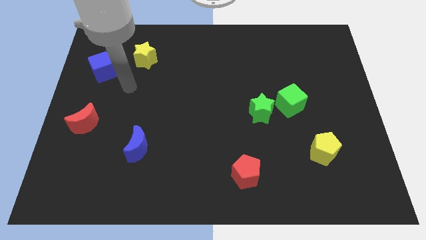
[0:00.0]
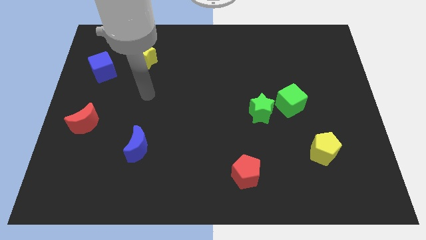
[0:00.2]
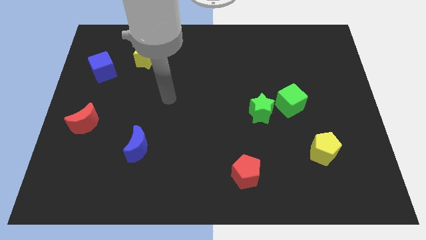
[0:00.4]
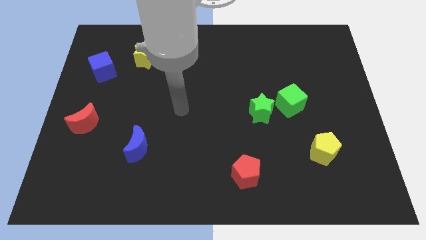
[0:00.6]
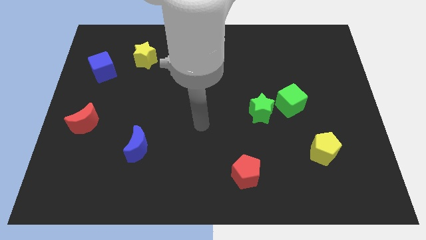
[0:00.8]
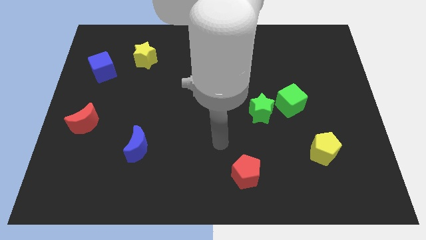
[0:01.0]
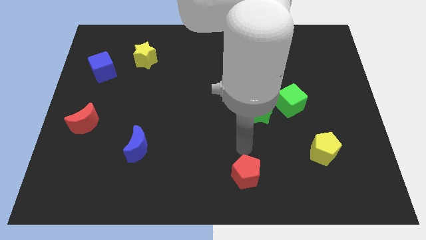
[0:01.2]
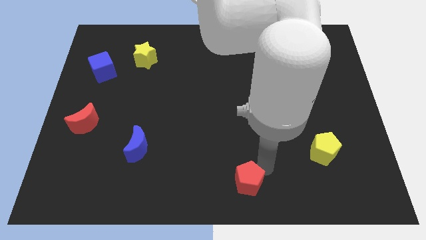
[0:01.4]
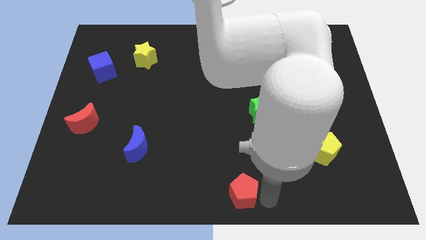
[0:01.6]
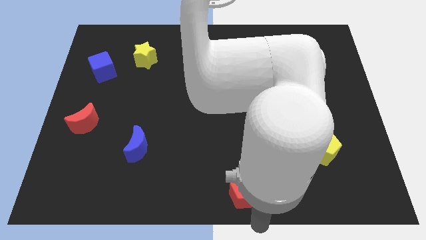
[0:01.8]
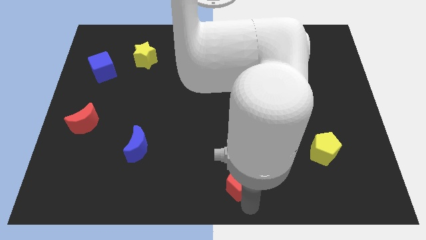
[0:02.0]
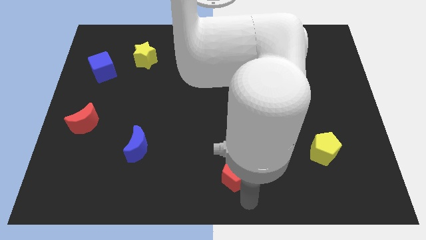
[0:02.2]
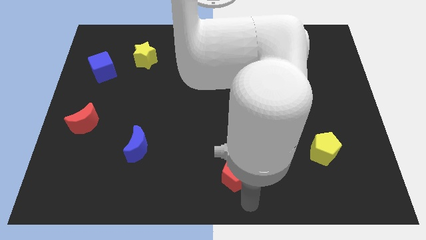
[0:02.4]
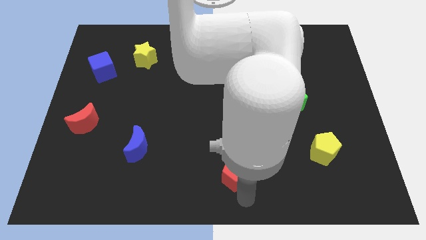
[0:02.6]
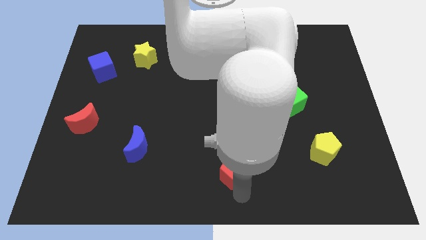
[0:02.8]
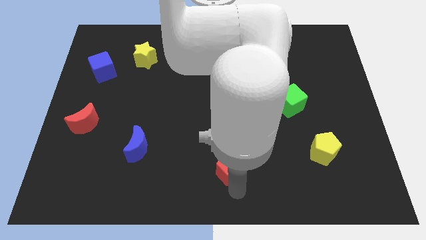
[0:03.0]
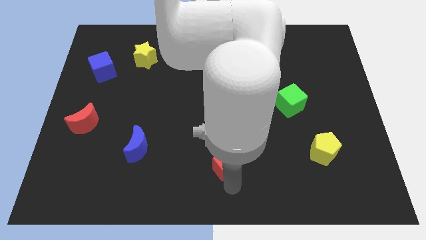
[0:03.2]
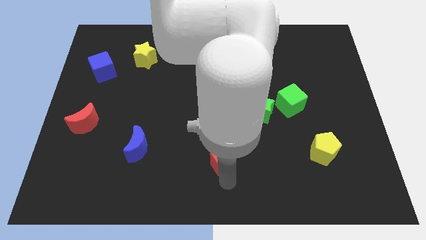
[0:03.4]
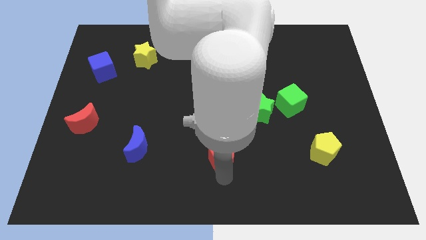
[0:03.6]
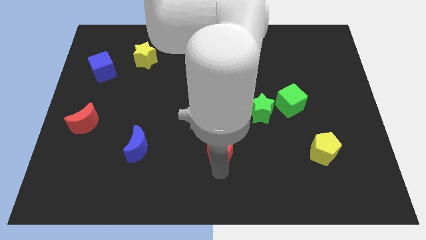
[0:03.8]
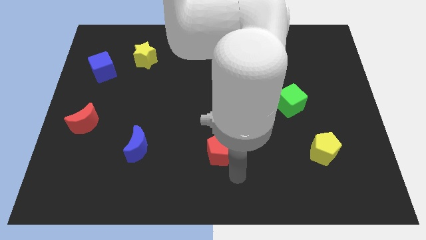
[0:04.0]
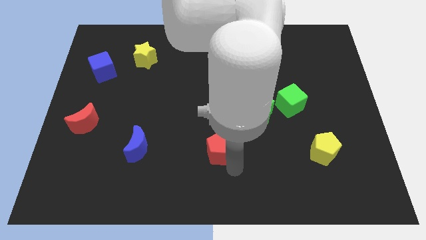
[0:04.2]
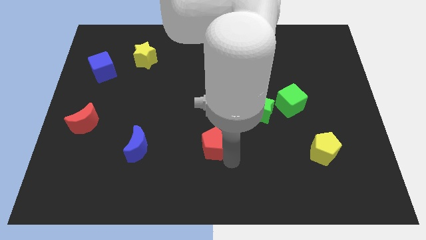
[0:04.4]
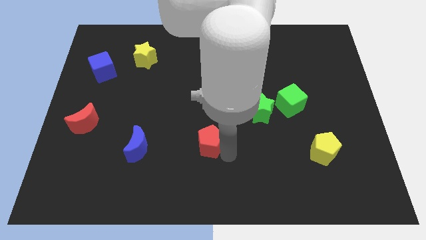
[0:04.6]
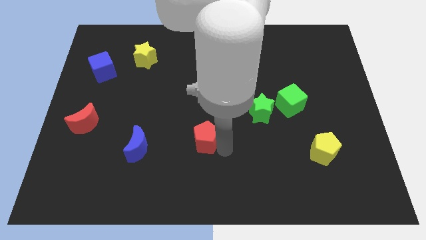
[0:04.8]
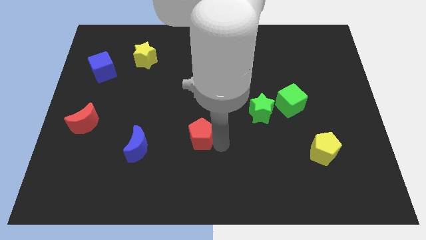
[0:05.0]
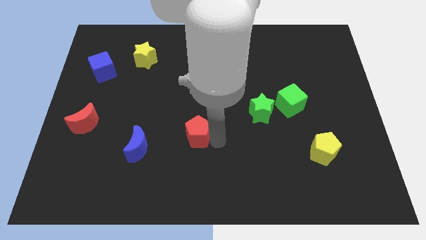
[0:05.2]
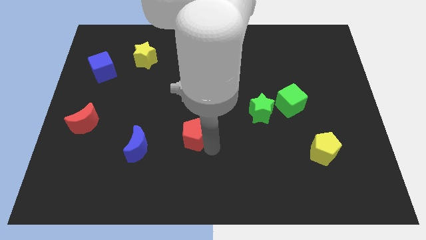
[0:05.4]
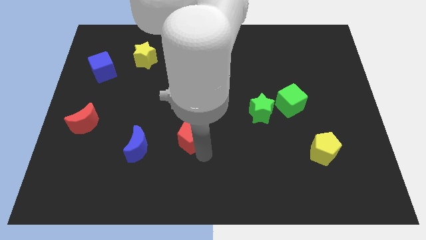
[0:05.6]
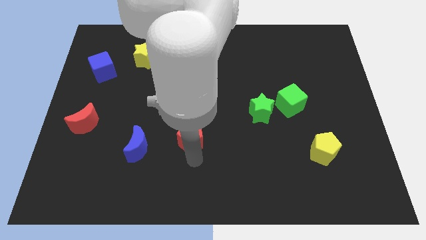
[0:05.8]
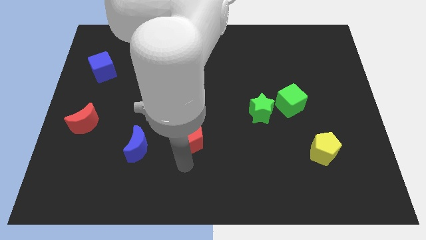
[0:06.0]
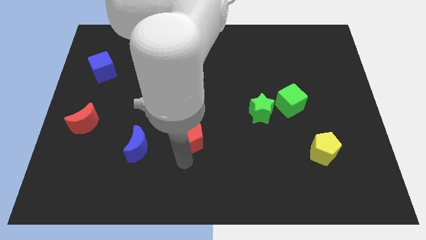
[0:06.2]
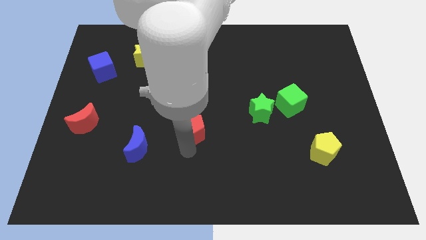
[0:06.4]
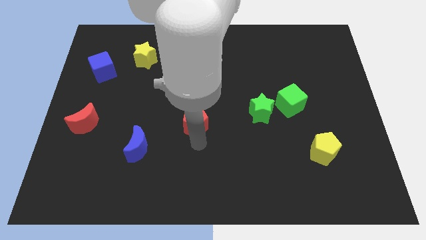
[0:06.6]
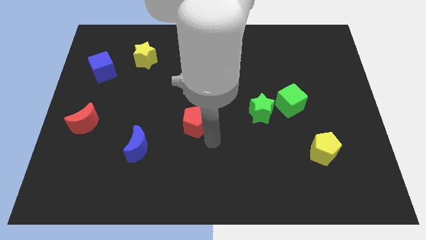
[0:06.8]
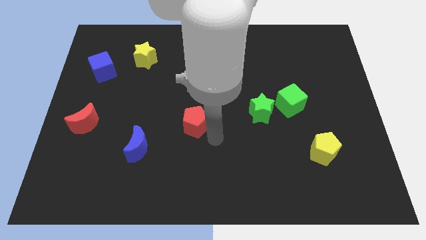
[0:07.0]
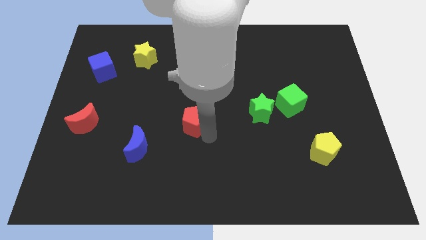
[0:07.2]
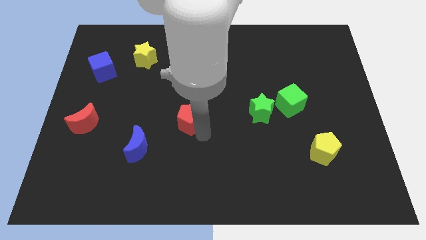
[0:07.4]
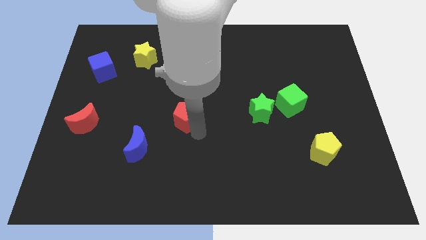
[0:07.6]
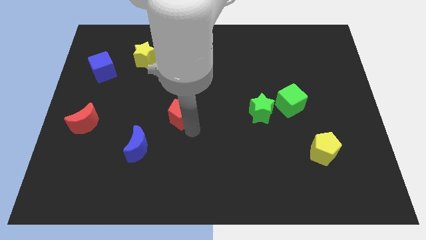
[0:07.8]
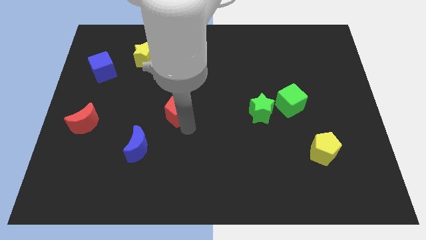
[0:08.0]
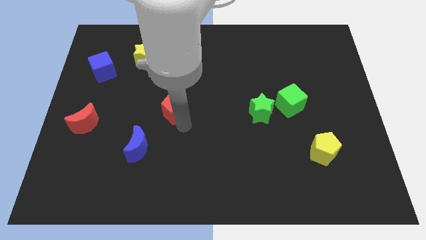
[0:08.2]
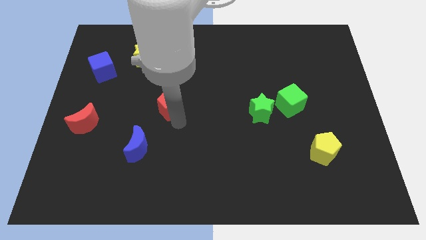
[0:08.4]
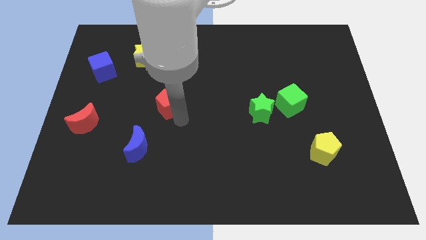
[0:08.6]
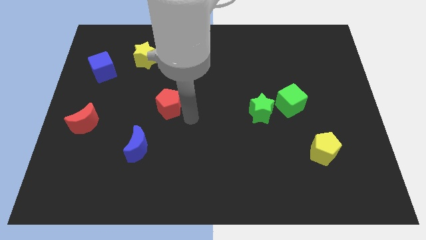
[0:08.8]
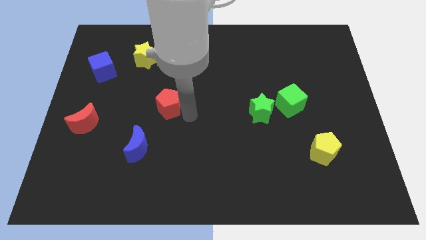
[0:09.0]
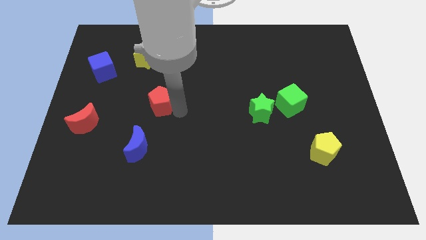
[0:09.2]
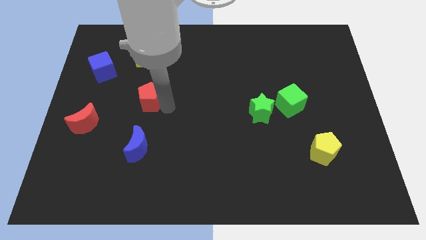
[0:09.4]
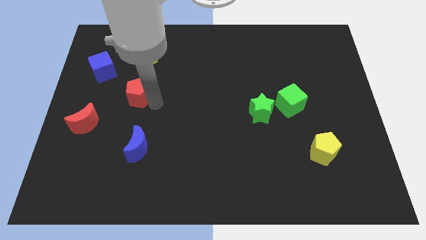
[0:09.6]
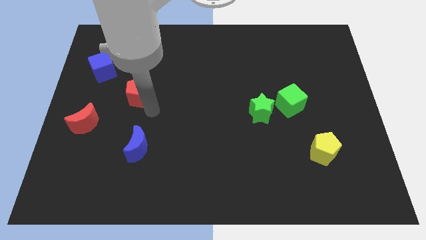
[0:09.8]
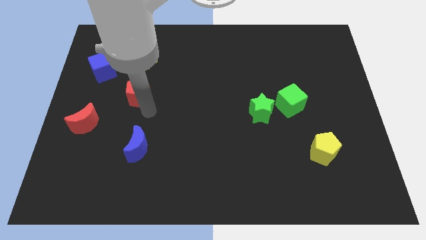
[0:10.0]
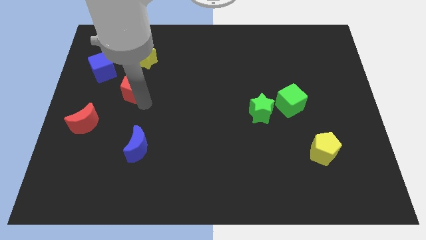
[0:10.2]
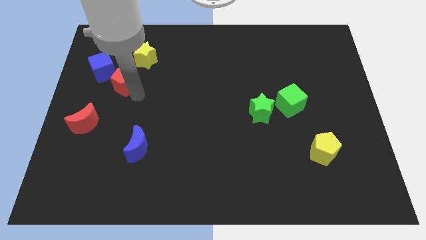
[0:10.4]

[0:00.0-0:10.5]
put the red pentagon to the bottom left of the yellow star

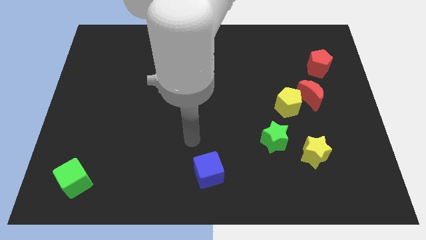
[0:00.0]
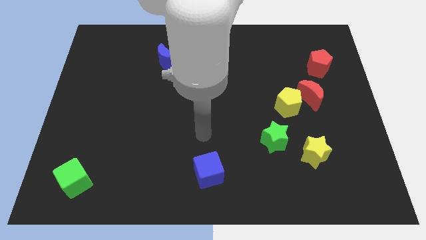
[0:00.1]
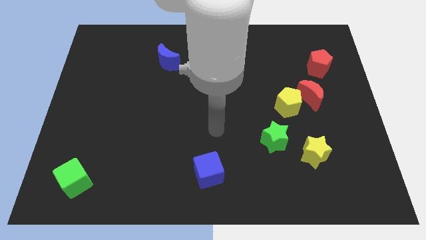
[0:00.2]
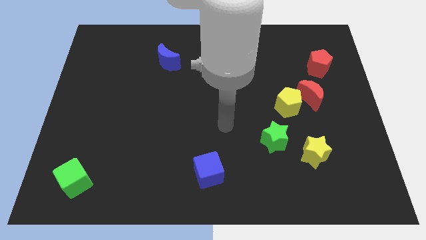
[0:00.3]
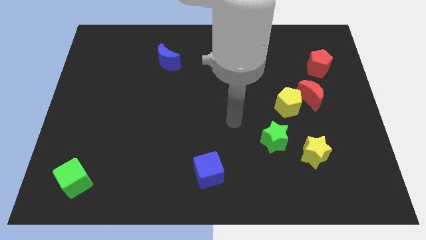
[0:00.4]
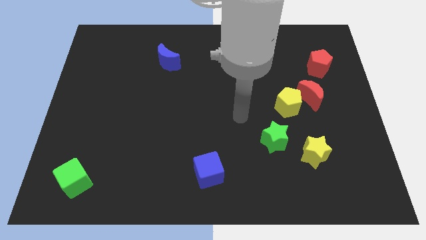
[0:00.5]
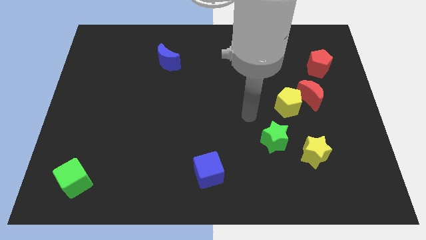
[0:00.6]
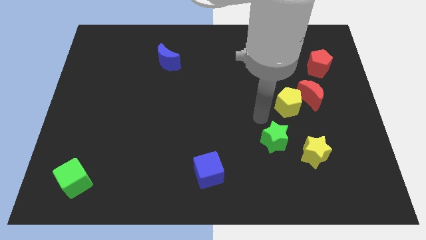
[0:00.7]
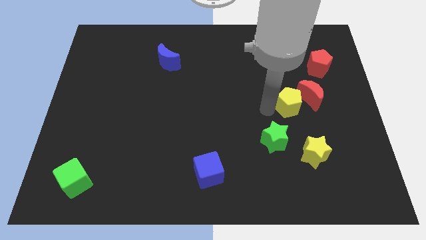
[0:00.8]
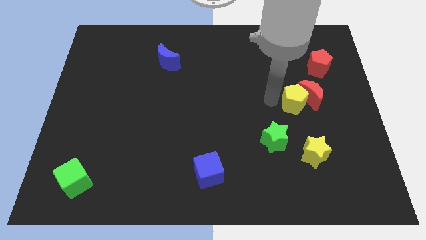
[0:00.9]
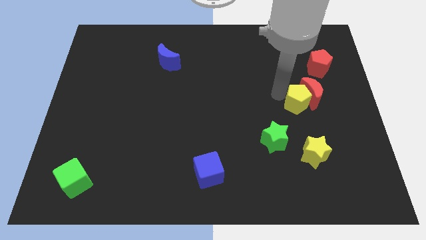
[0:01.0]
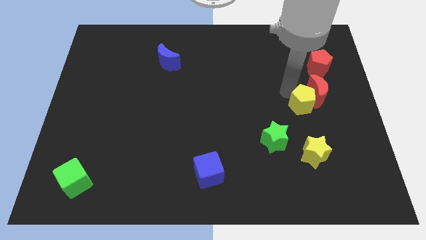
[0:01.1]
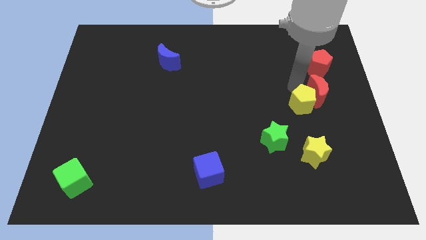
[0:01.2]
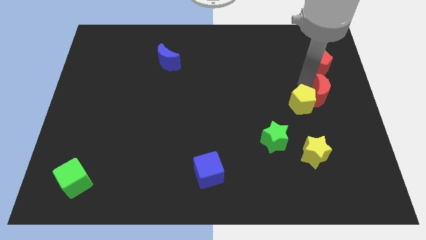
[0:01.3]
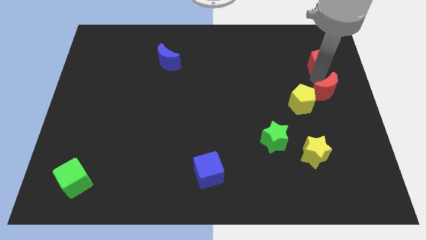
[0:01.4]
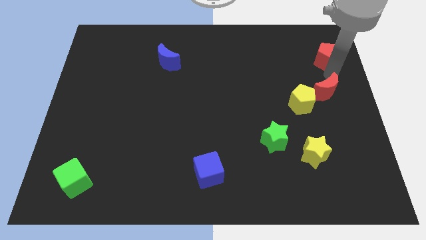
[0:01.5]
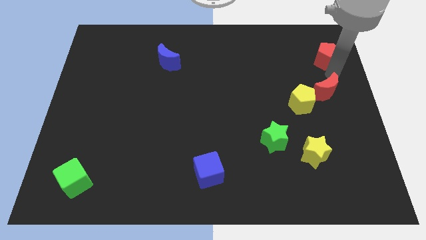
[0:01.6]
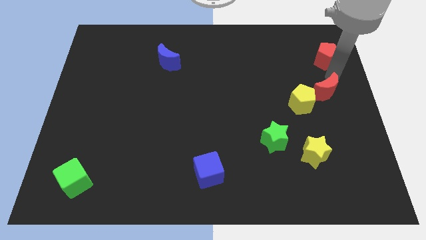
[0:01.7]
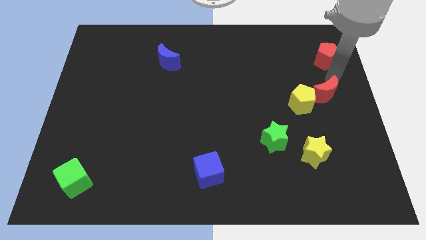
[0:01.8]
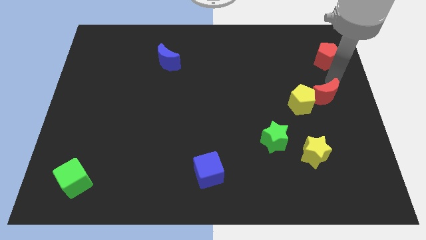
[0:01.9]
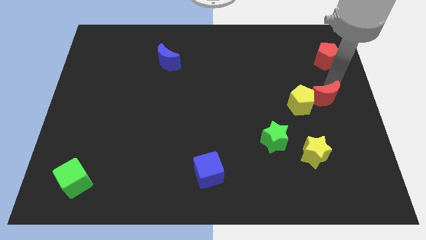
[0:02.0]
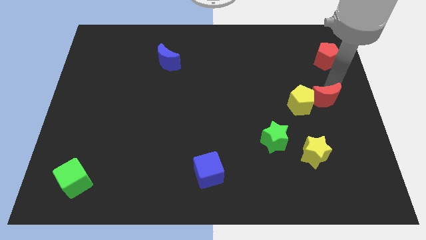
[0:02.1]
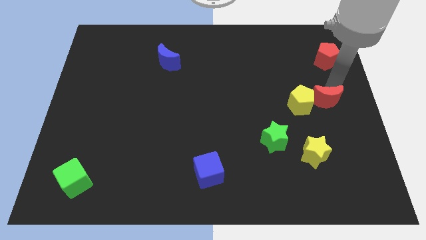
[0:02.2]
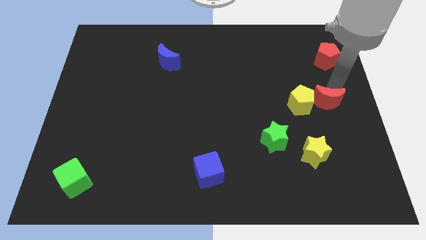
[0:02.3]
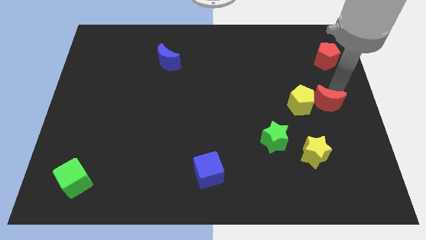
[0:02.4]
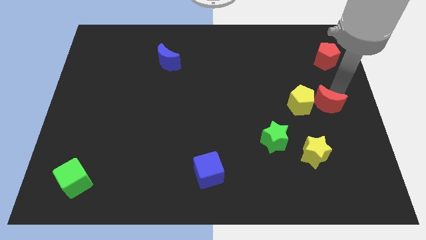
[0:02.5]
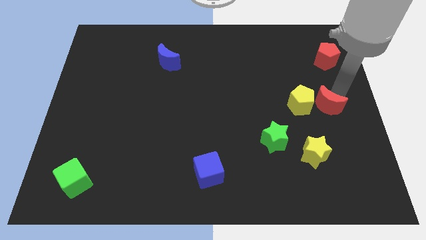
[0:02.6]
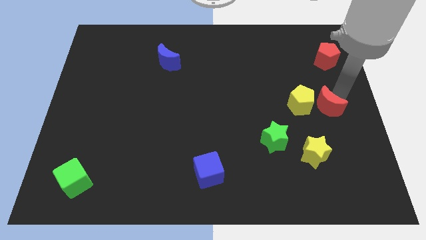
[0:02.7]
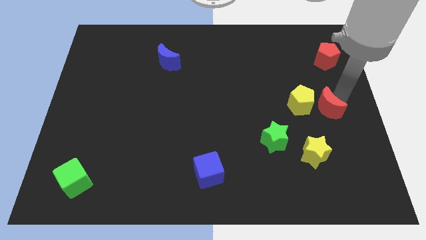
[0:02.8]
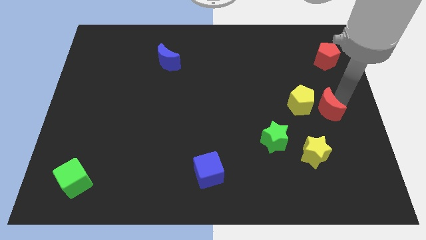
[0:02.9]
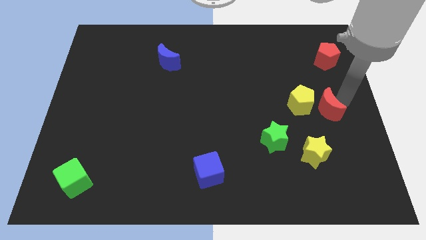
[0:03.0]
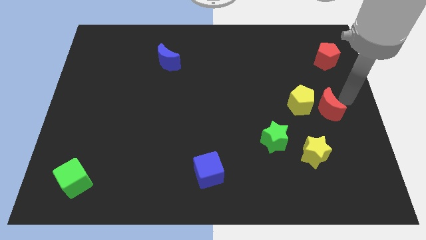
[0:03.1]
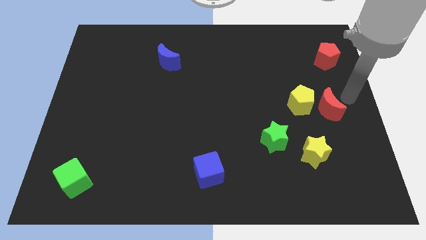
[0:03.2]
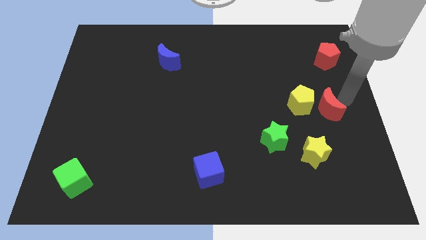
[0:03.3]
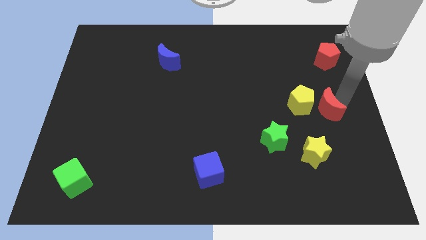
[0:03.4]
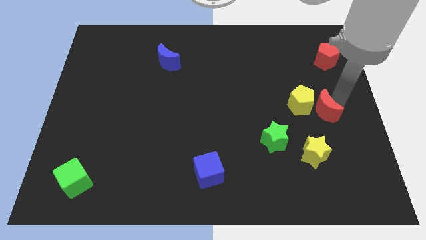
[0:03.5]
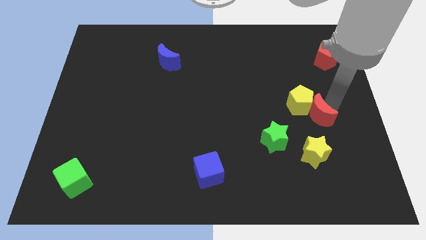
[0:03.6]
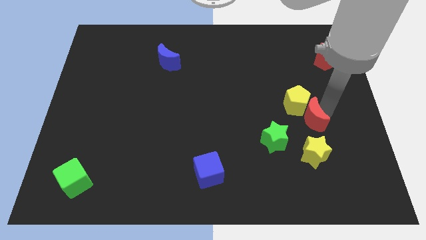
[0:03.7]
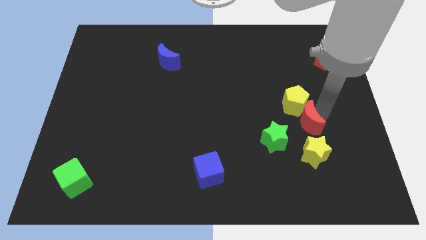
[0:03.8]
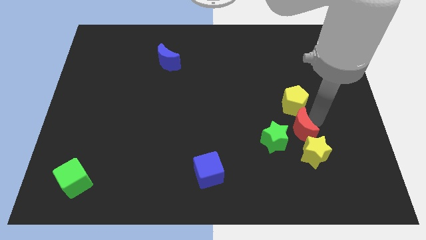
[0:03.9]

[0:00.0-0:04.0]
push the red moon to the top left side of the yellow star
